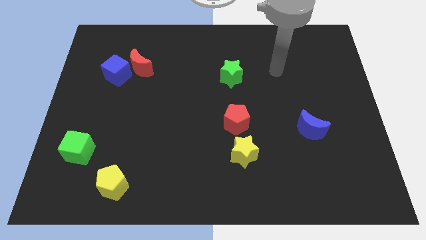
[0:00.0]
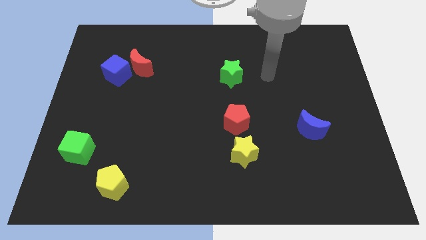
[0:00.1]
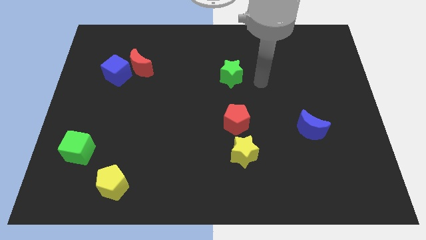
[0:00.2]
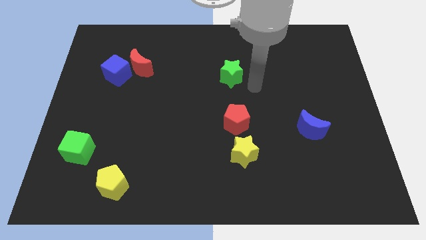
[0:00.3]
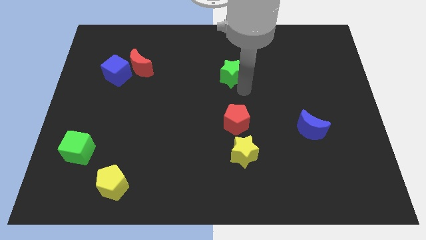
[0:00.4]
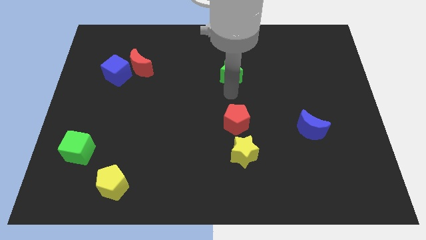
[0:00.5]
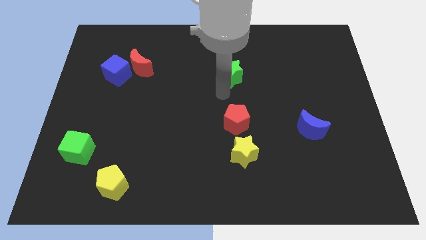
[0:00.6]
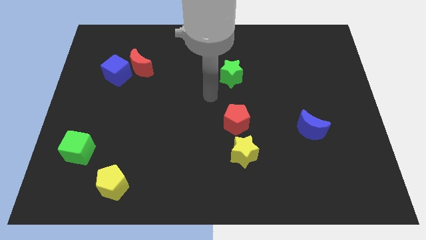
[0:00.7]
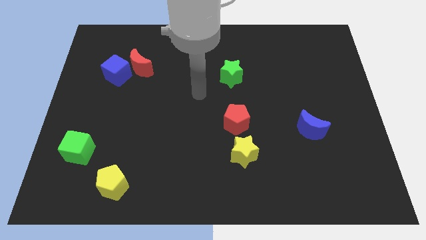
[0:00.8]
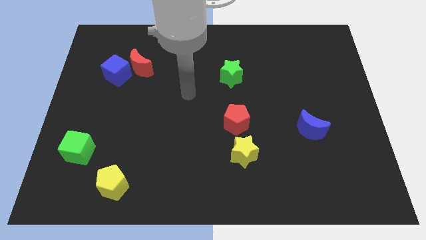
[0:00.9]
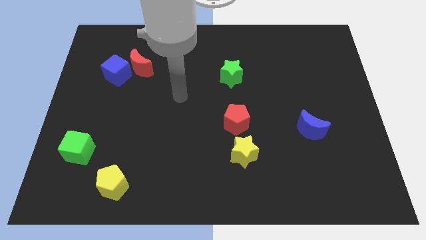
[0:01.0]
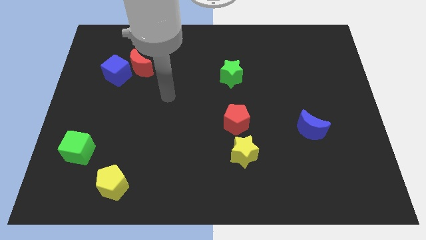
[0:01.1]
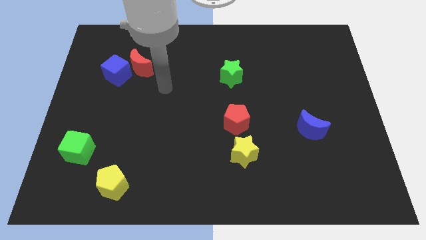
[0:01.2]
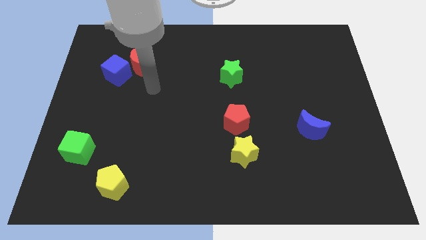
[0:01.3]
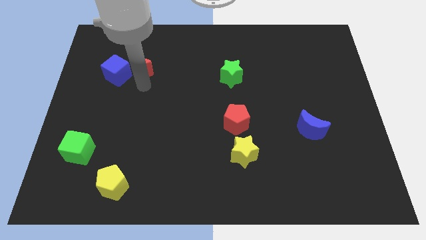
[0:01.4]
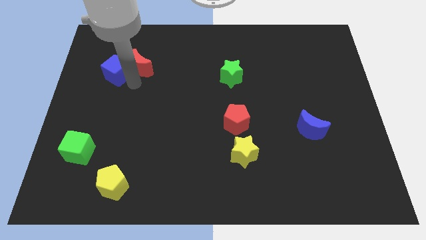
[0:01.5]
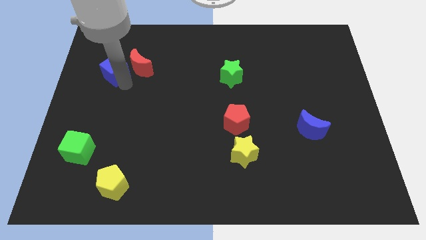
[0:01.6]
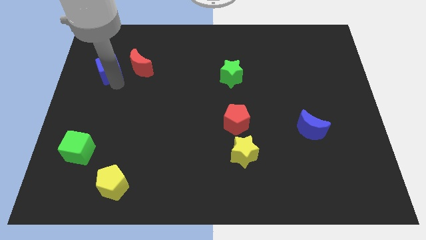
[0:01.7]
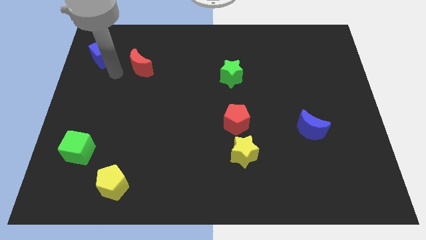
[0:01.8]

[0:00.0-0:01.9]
pull the red moon apart from the blue cube

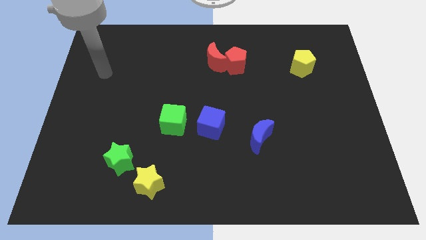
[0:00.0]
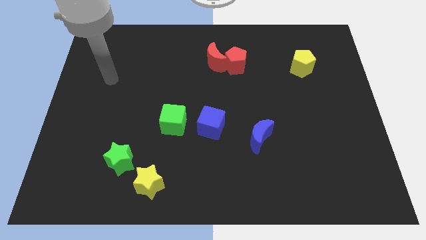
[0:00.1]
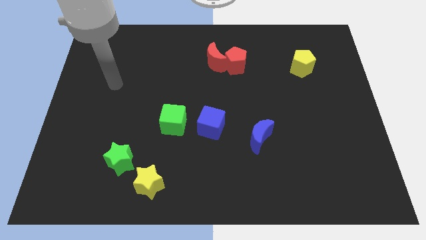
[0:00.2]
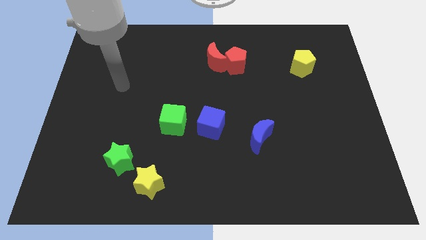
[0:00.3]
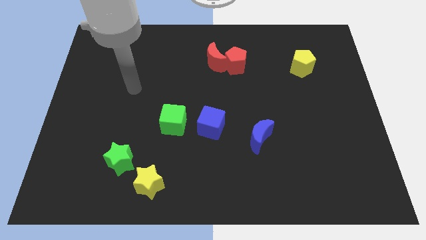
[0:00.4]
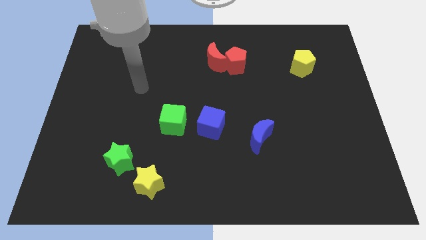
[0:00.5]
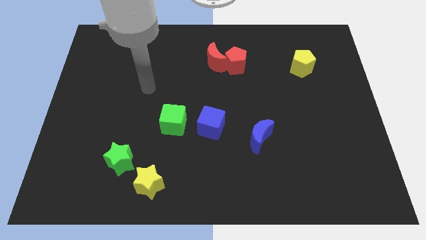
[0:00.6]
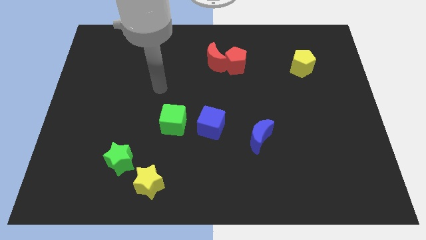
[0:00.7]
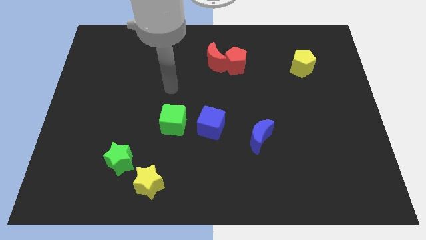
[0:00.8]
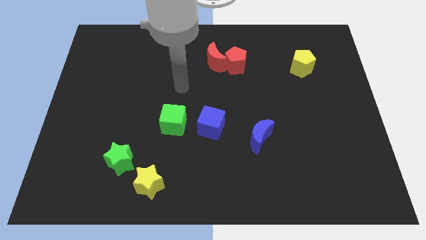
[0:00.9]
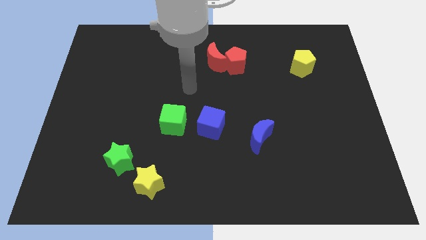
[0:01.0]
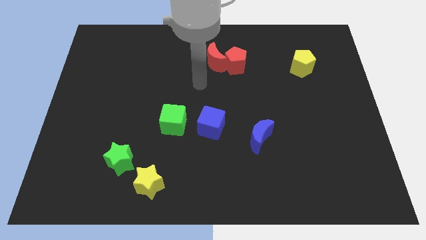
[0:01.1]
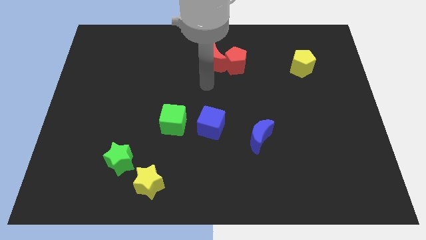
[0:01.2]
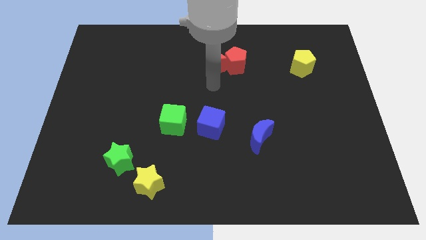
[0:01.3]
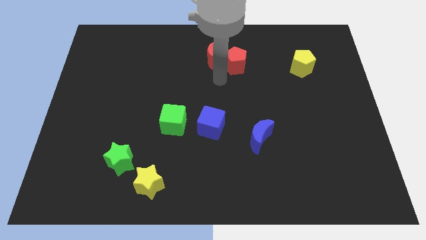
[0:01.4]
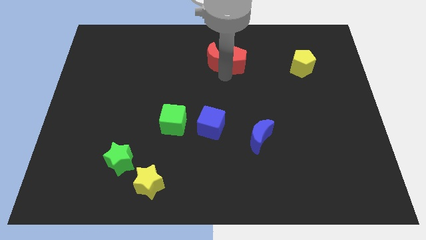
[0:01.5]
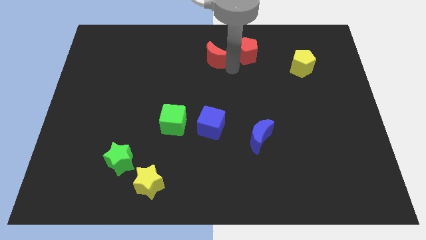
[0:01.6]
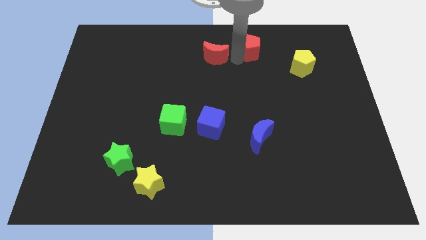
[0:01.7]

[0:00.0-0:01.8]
move the red moon away from the red pentagon

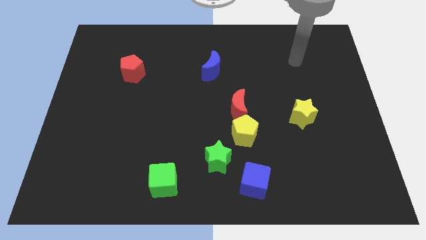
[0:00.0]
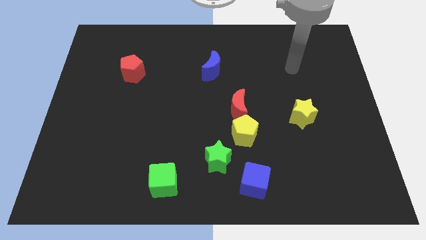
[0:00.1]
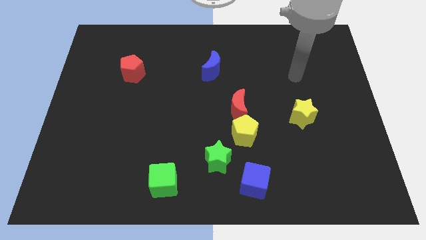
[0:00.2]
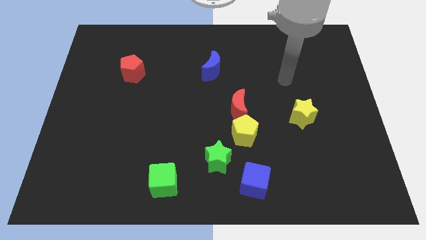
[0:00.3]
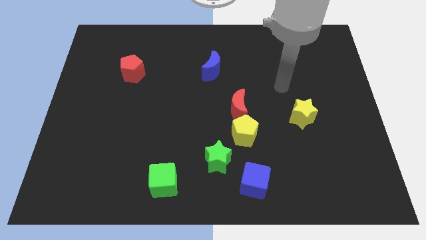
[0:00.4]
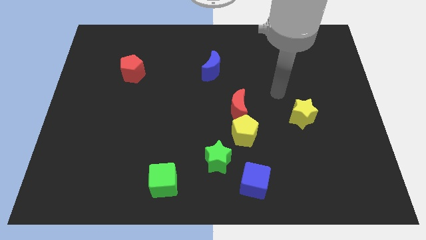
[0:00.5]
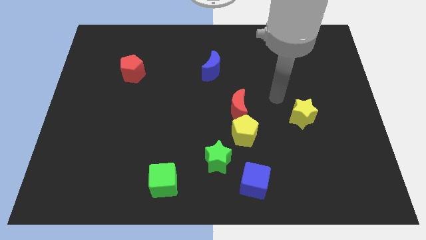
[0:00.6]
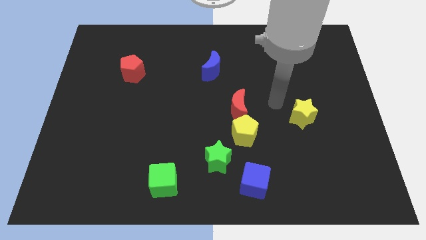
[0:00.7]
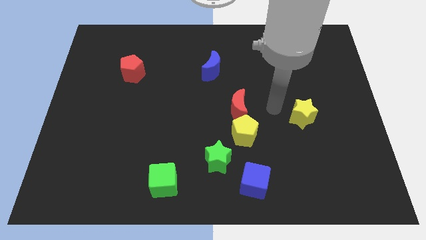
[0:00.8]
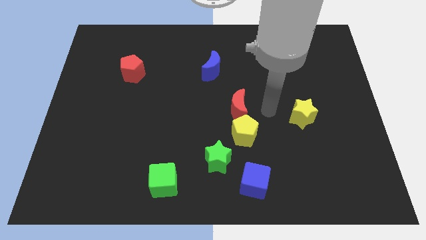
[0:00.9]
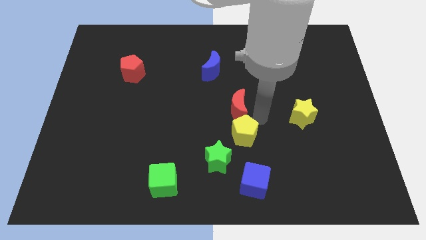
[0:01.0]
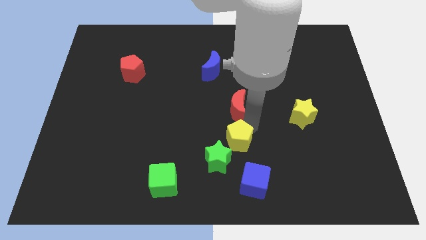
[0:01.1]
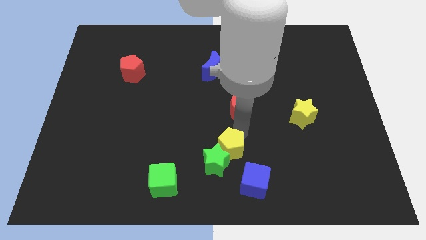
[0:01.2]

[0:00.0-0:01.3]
move the red moon away from the yellow pentagon

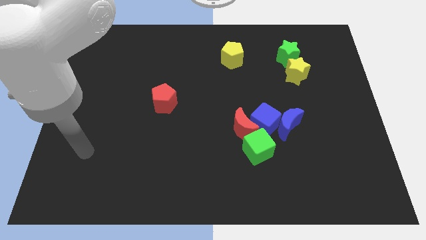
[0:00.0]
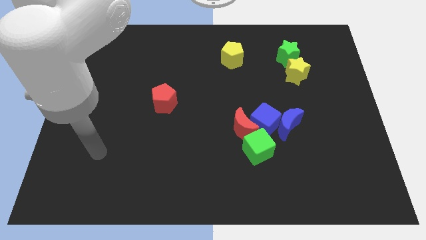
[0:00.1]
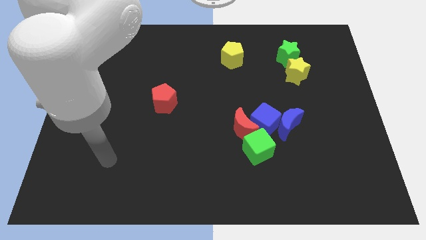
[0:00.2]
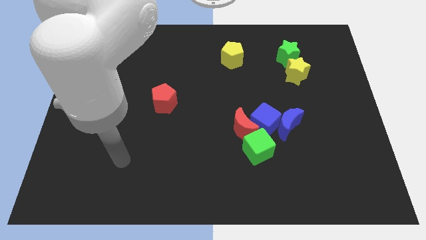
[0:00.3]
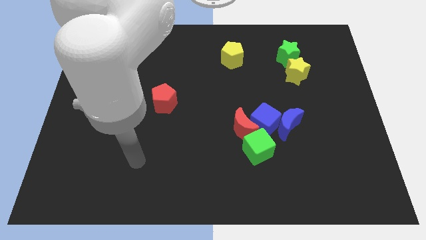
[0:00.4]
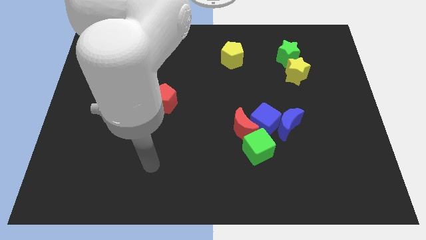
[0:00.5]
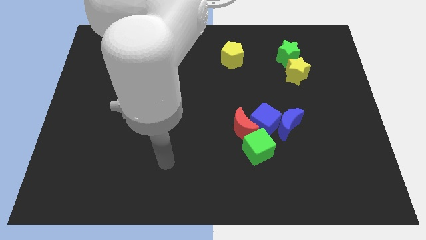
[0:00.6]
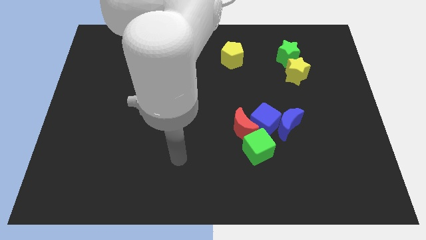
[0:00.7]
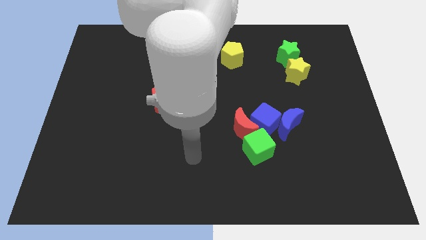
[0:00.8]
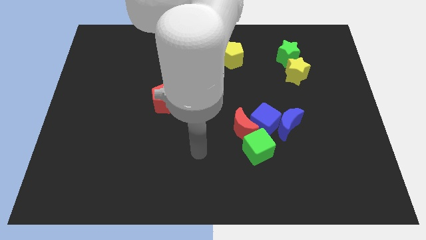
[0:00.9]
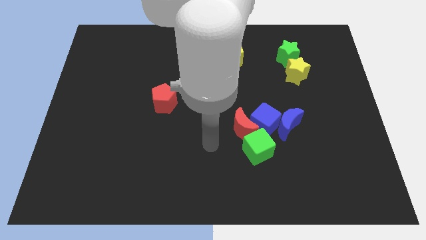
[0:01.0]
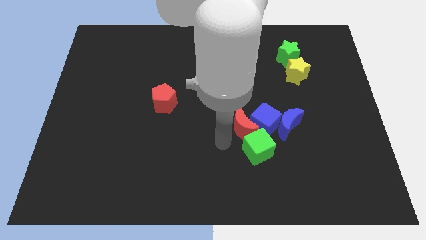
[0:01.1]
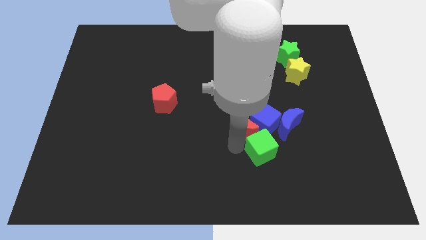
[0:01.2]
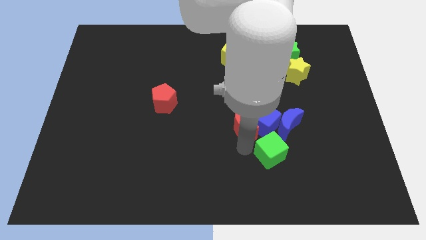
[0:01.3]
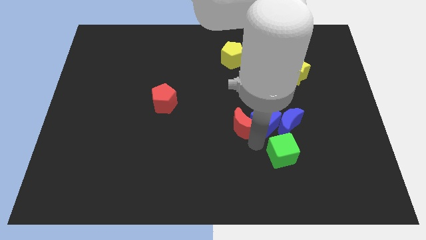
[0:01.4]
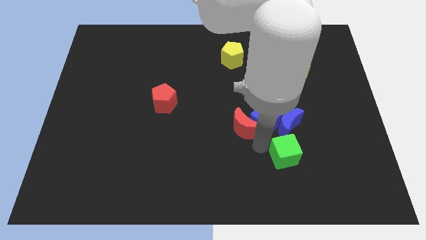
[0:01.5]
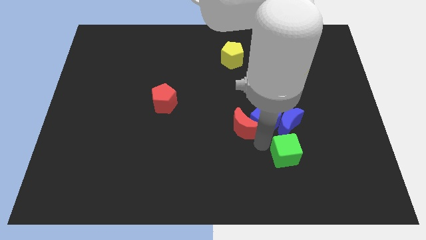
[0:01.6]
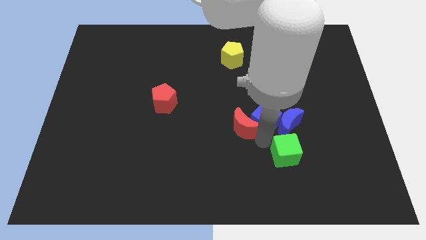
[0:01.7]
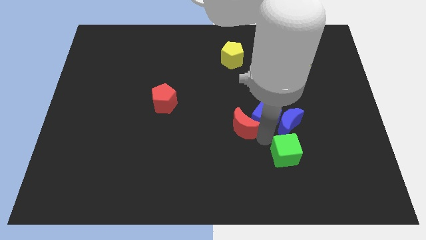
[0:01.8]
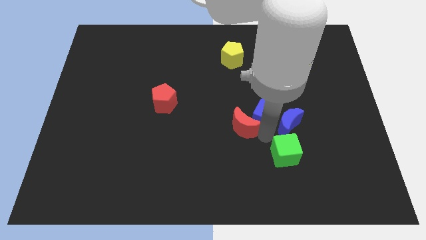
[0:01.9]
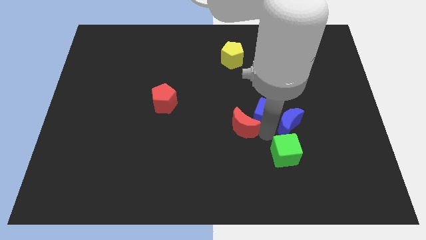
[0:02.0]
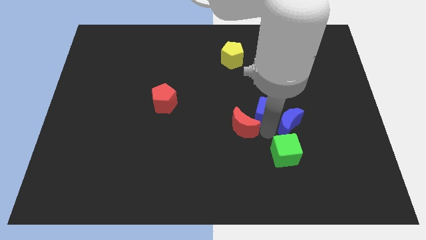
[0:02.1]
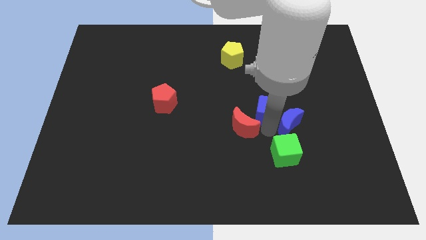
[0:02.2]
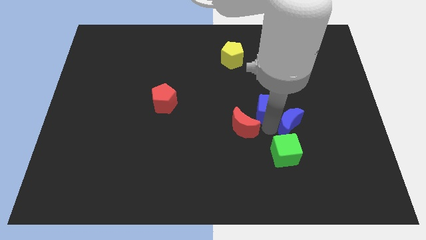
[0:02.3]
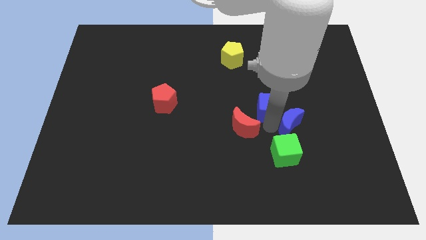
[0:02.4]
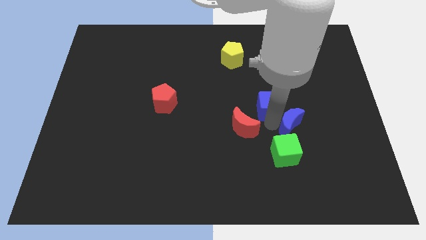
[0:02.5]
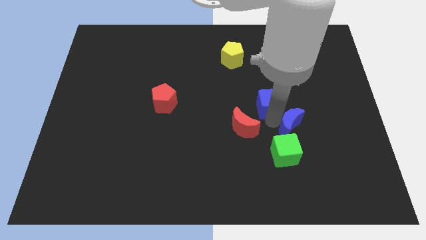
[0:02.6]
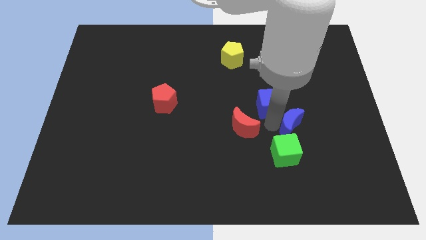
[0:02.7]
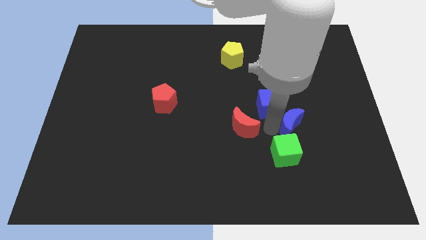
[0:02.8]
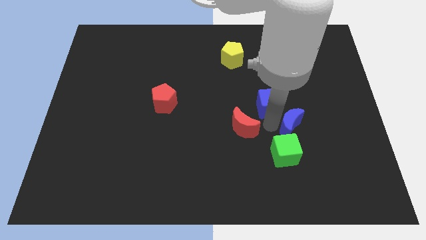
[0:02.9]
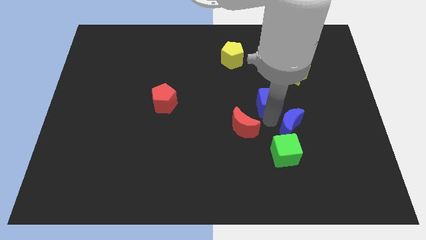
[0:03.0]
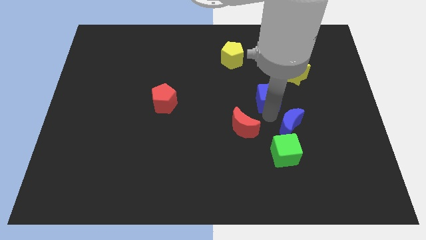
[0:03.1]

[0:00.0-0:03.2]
separate the blue cube from the red moon, blue moon, and green cube

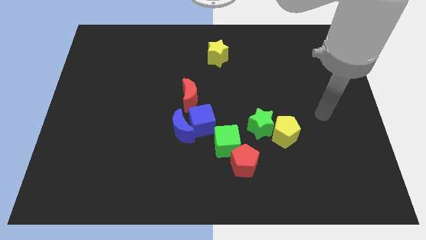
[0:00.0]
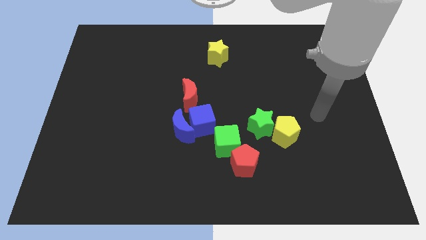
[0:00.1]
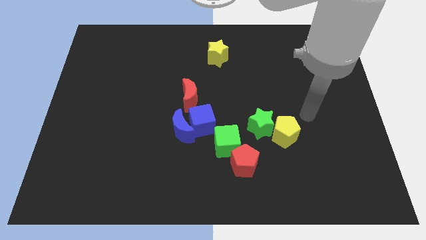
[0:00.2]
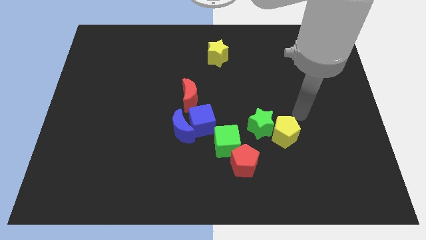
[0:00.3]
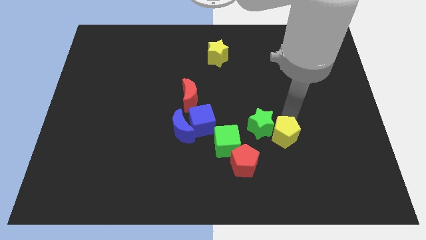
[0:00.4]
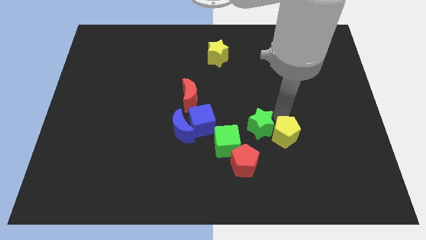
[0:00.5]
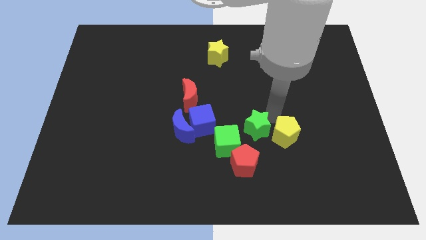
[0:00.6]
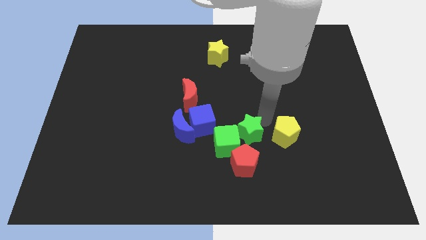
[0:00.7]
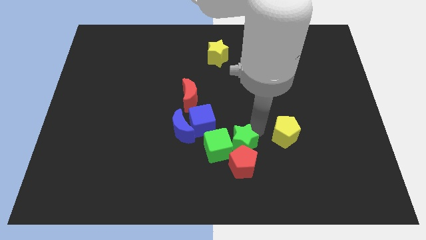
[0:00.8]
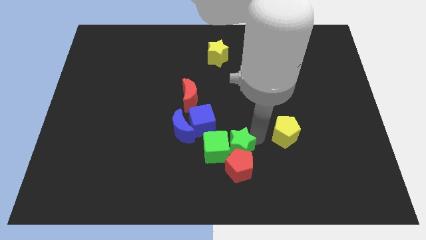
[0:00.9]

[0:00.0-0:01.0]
move the yellow pentagon away from the green star

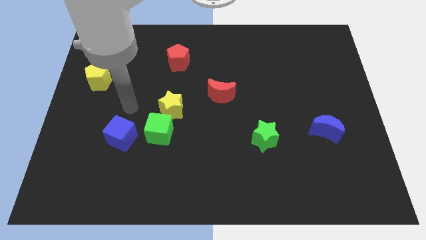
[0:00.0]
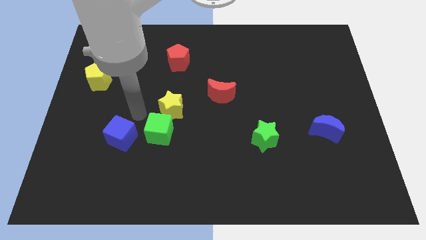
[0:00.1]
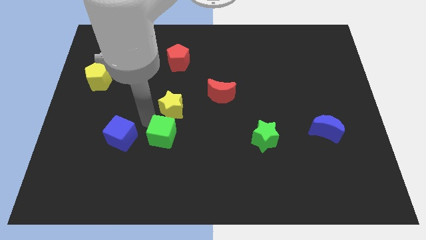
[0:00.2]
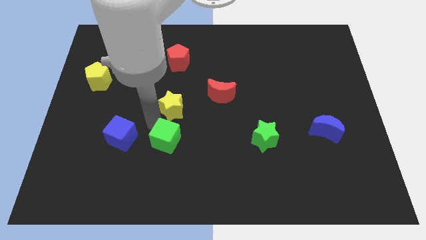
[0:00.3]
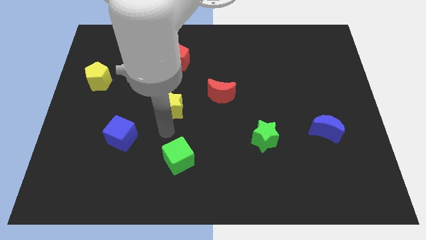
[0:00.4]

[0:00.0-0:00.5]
separate the yellow star from the green cube
